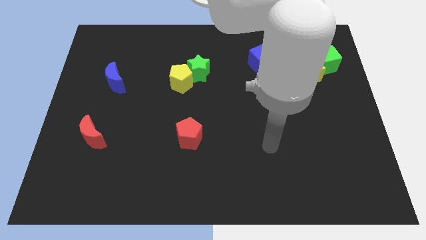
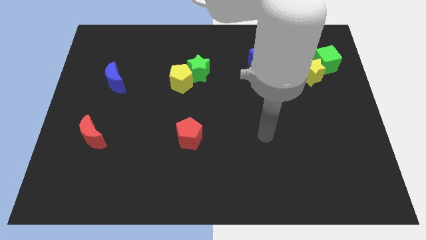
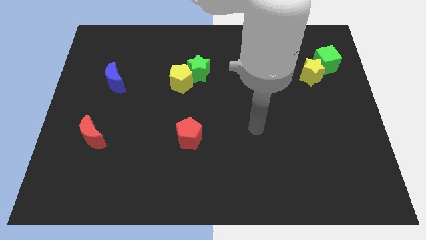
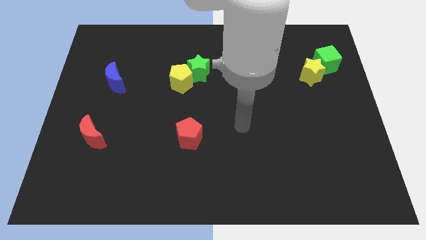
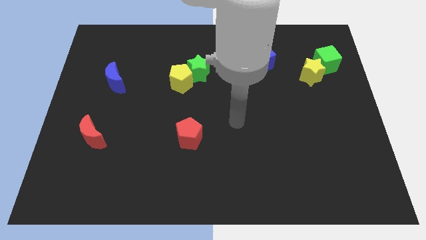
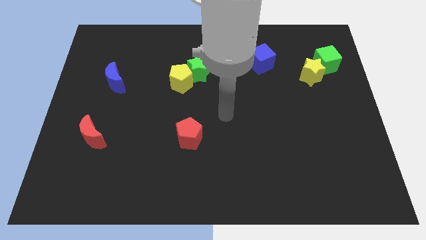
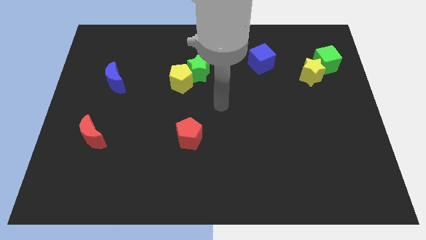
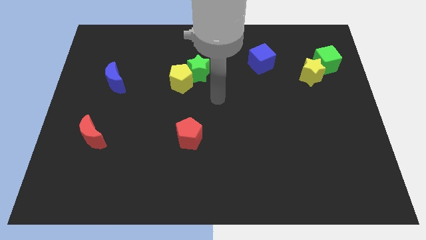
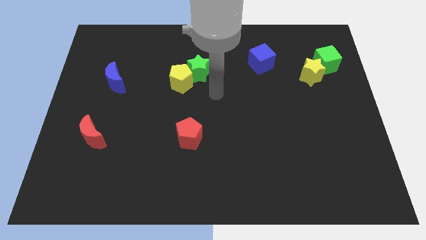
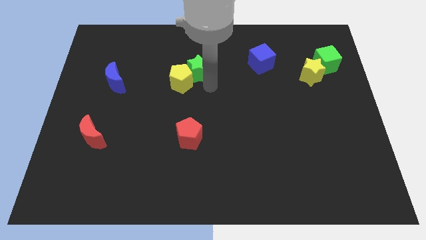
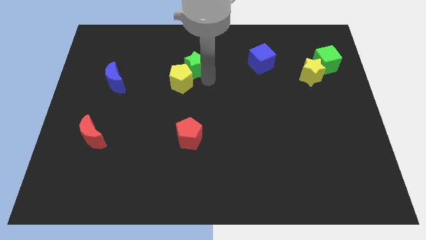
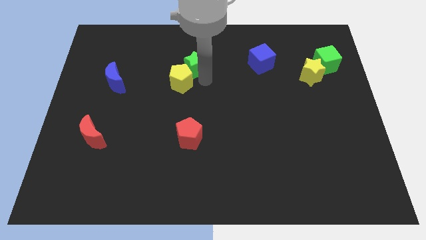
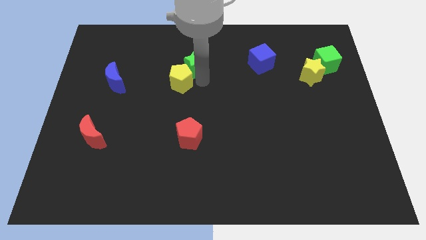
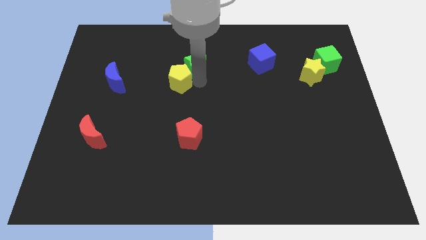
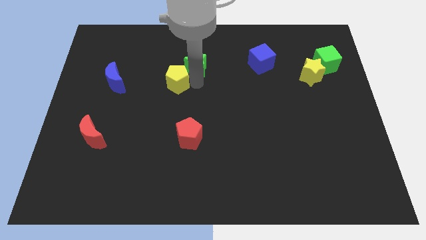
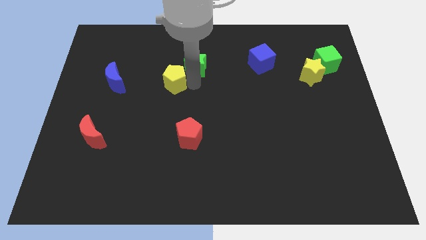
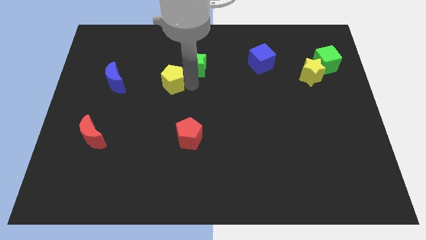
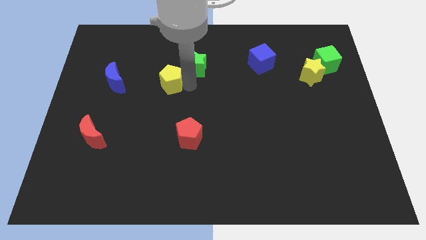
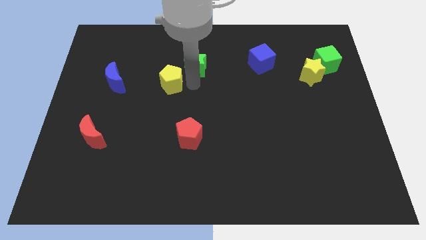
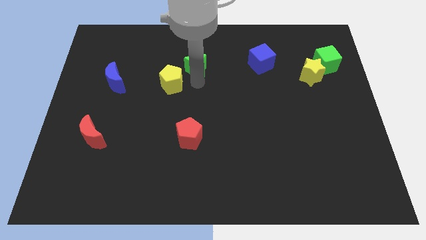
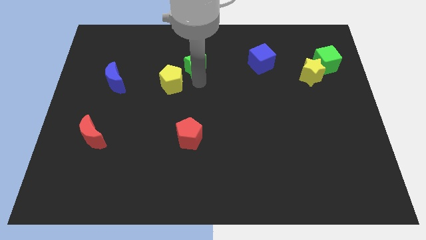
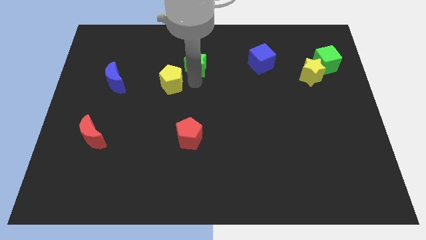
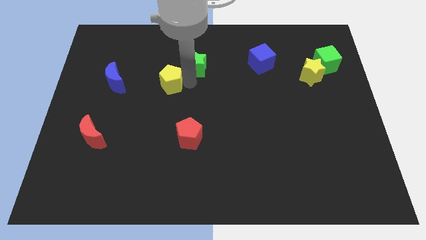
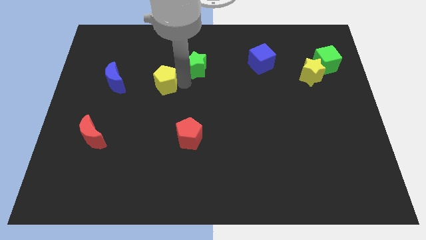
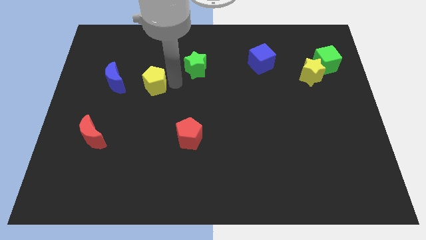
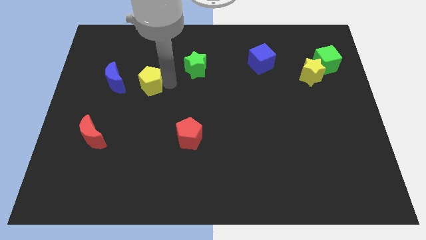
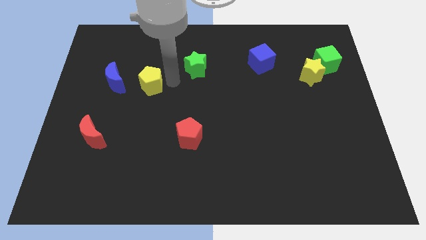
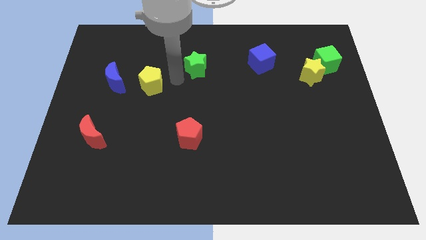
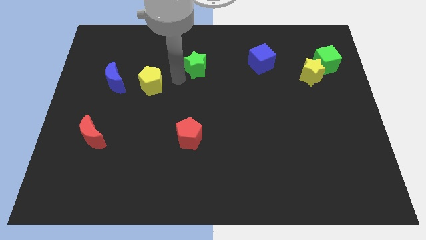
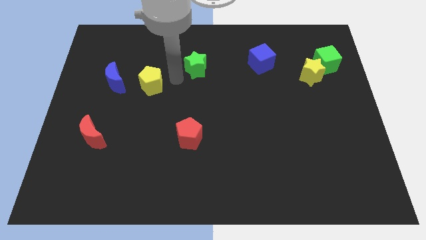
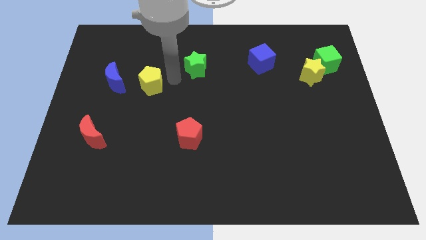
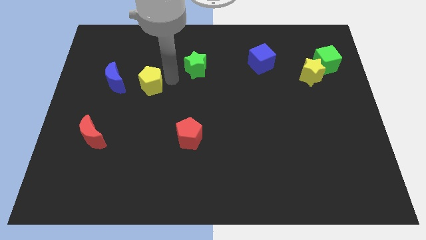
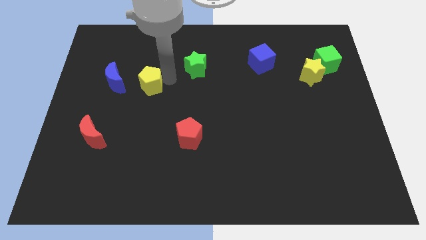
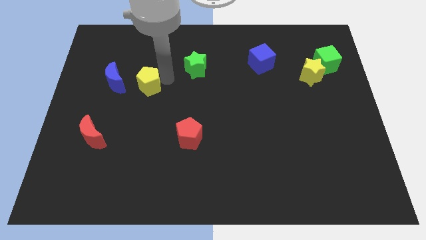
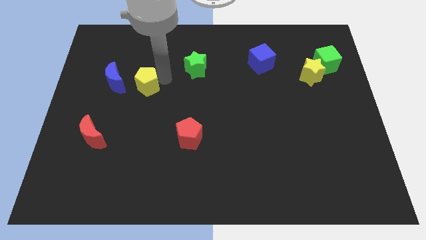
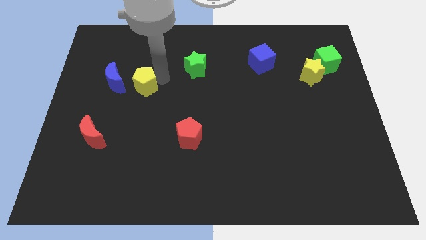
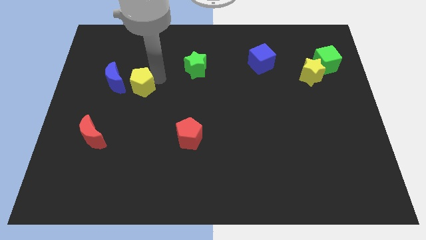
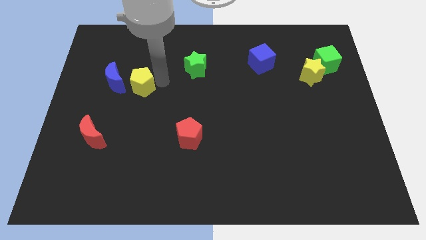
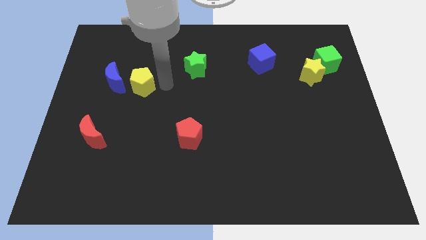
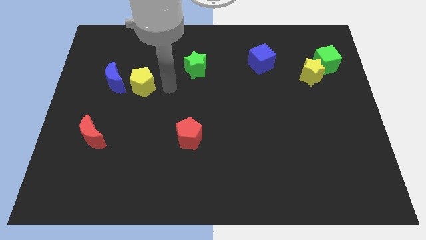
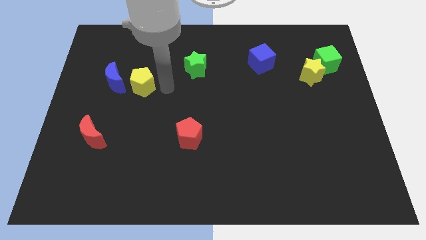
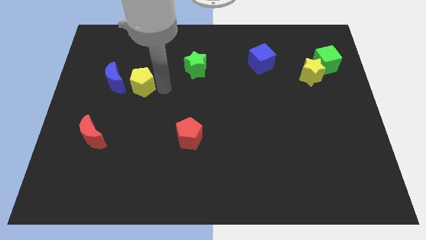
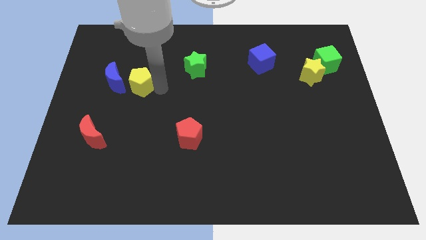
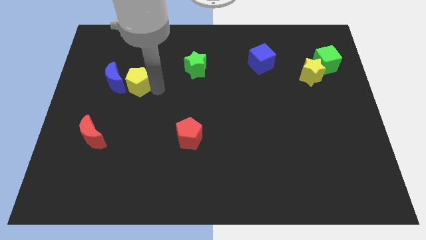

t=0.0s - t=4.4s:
move the yellow pentagon to the blue moon

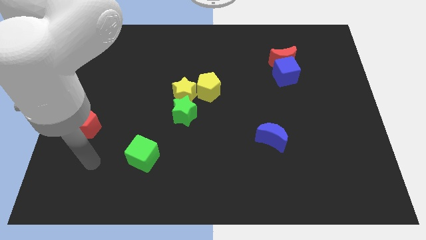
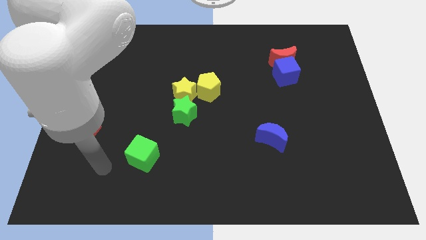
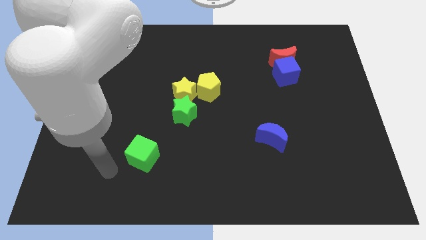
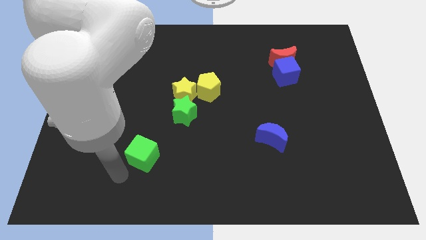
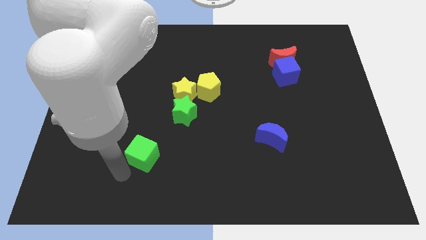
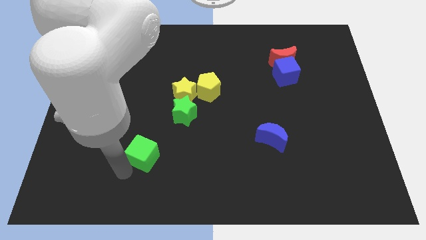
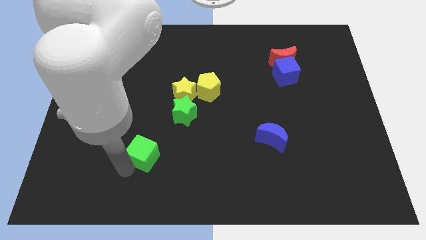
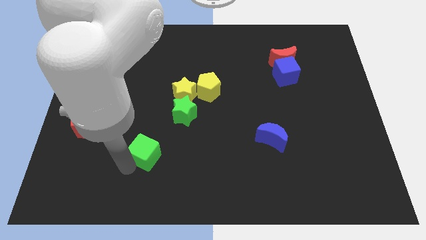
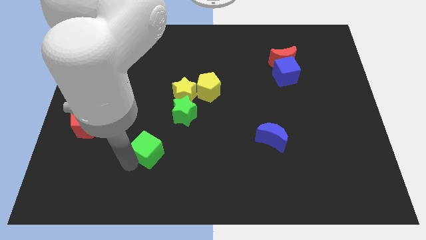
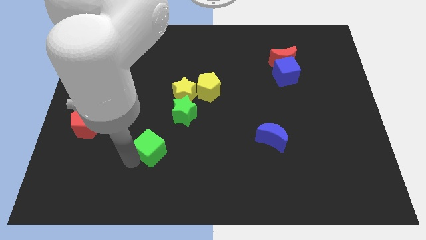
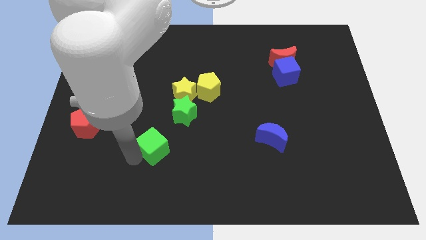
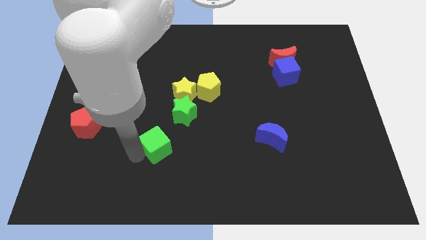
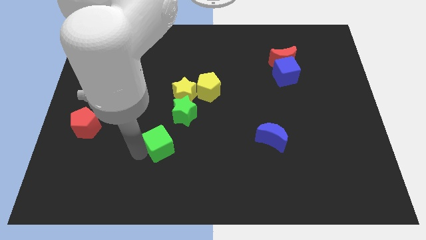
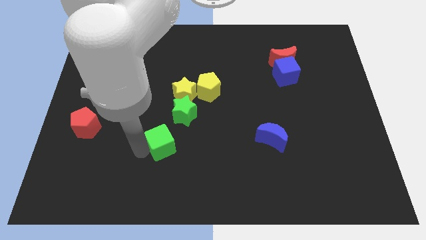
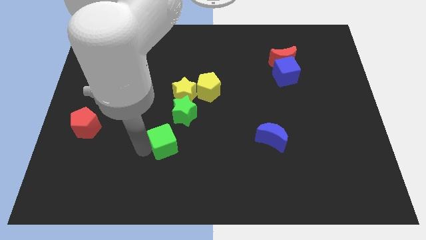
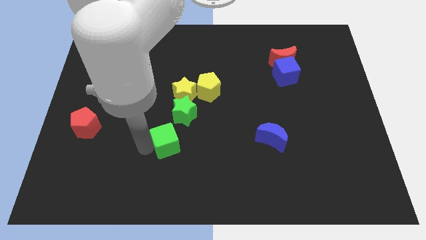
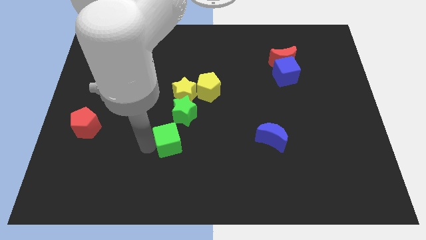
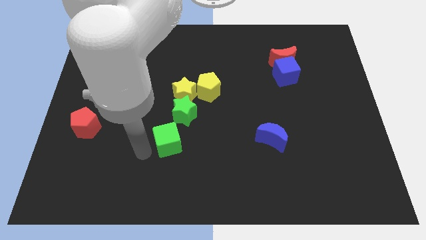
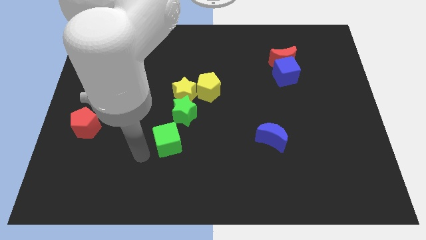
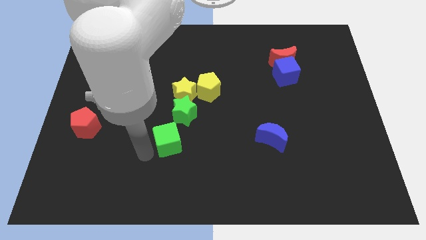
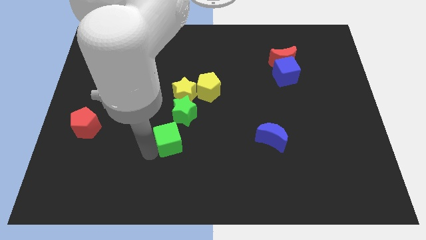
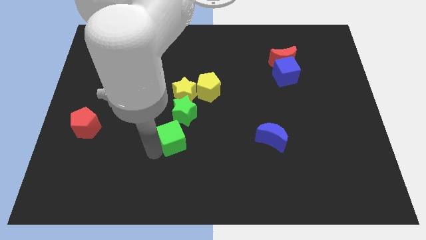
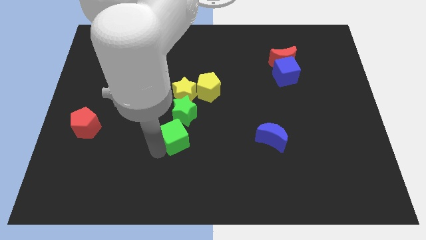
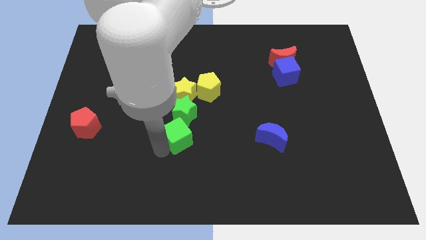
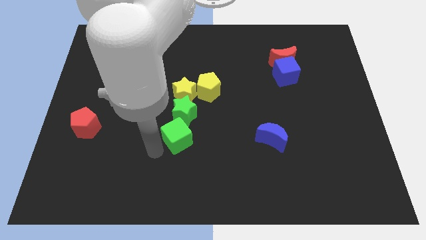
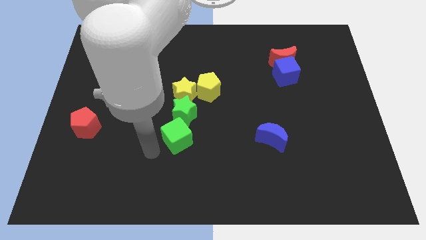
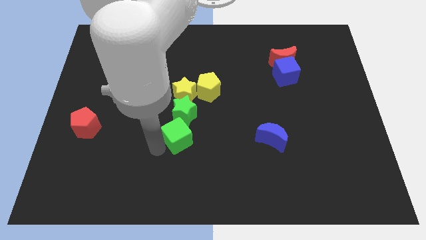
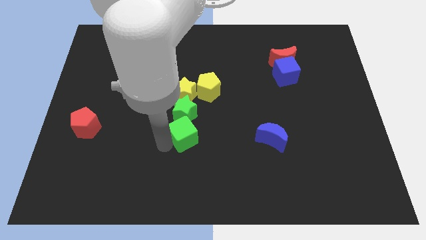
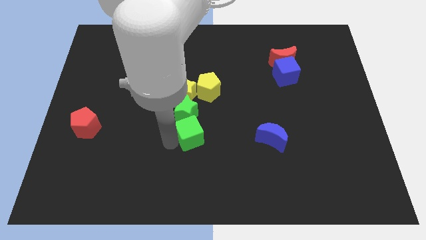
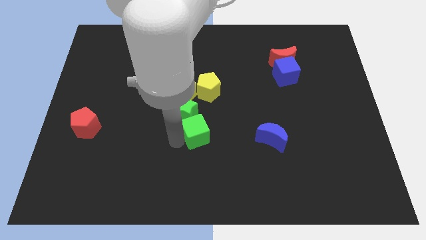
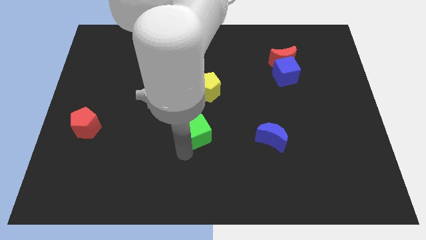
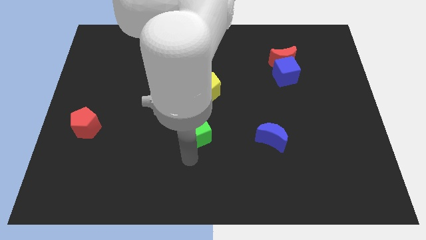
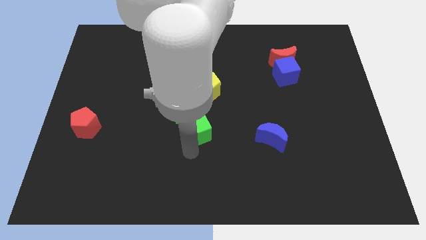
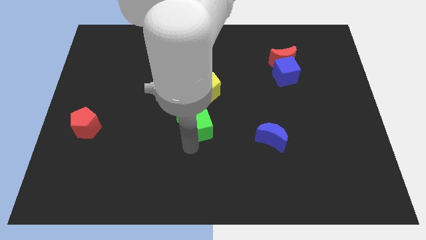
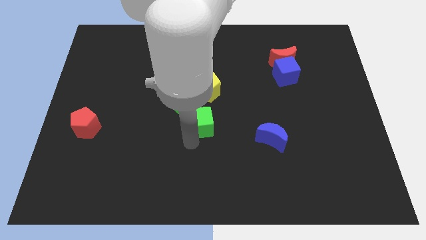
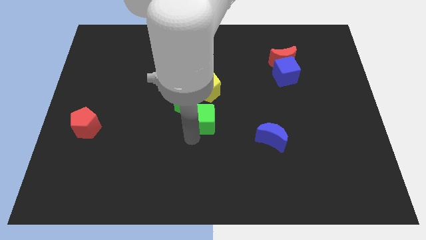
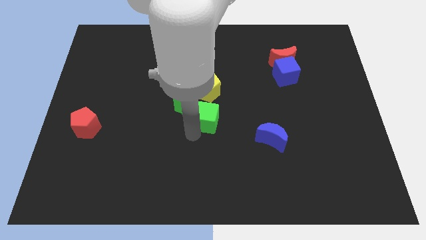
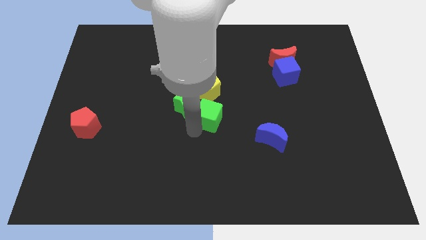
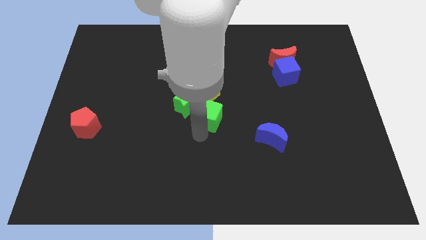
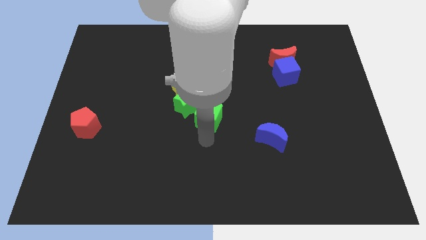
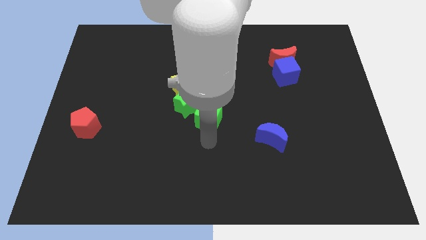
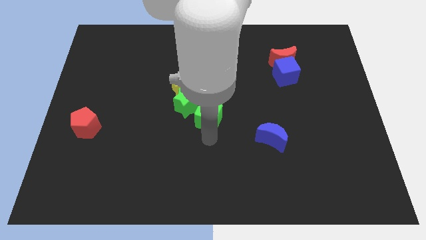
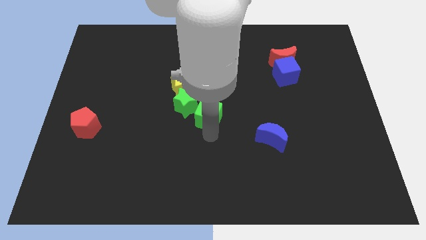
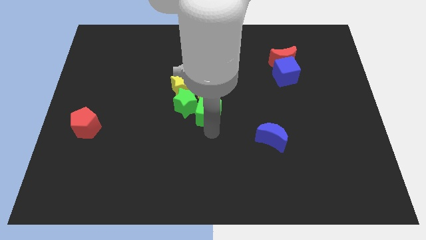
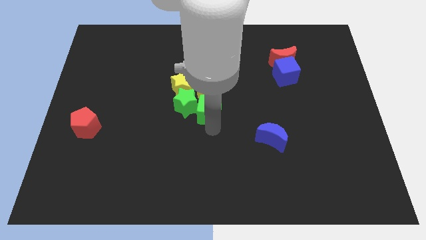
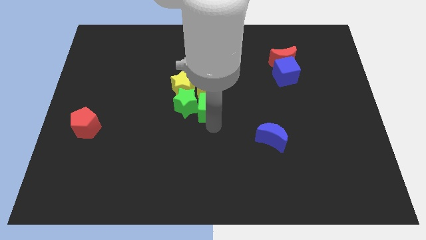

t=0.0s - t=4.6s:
put the green cube next to the yellow pentagon
